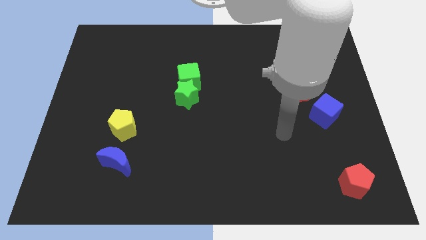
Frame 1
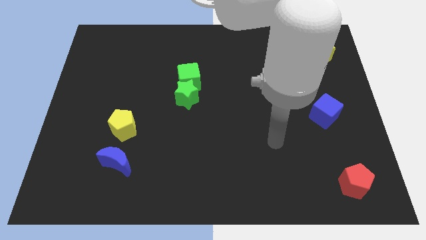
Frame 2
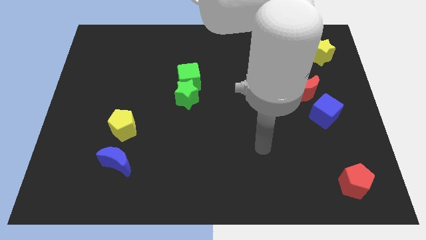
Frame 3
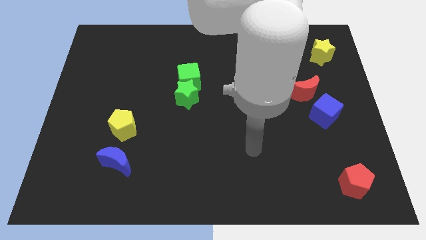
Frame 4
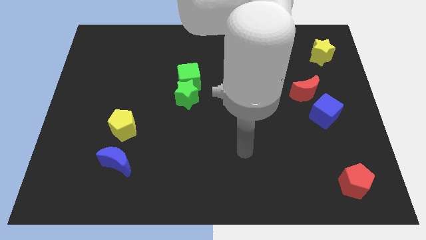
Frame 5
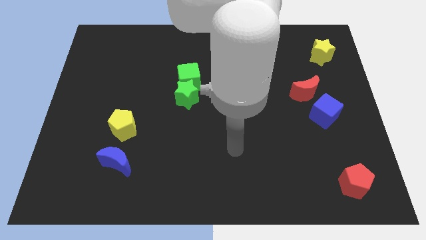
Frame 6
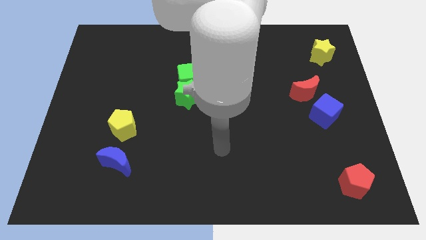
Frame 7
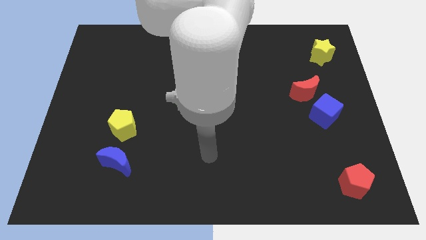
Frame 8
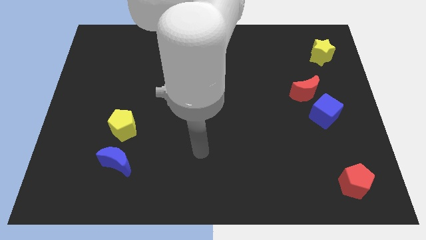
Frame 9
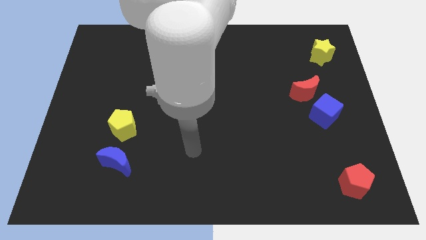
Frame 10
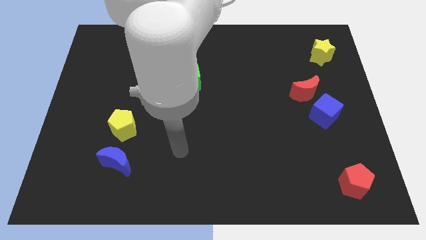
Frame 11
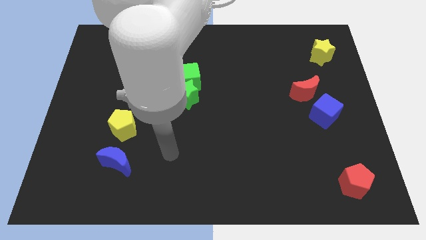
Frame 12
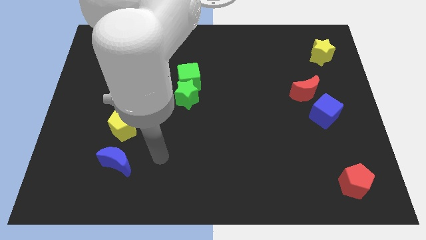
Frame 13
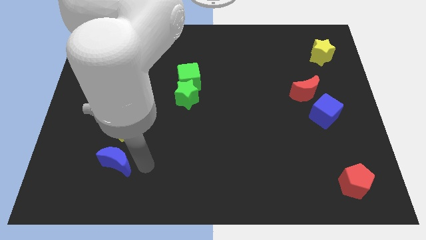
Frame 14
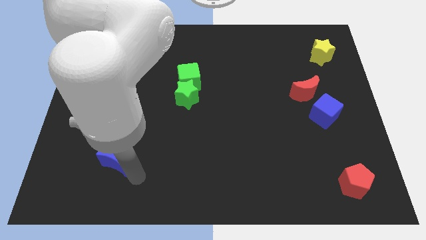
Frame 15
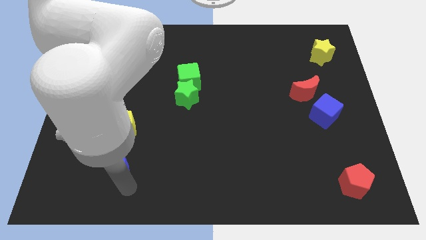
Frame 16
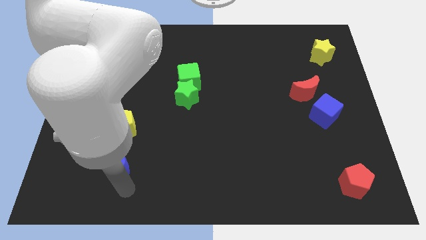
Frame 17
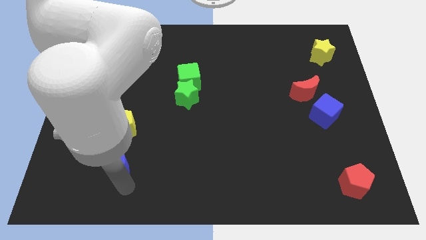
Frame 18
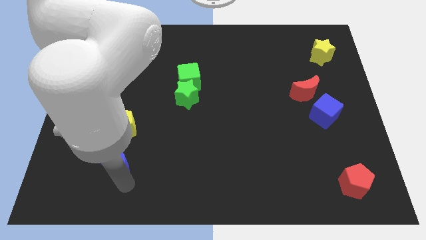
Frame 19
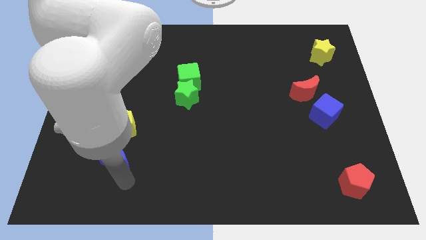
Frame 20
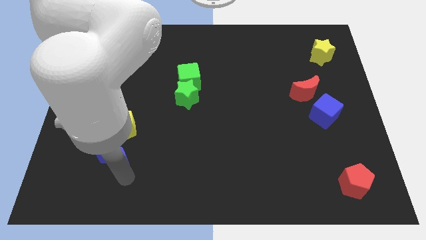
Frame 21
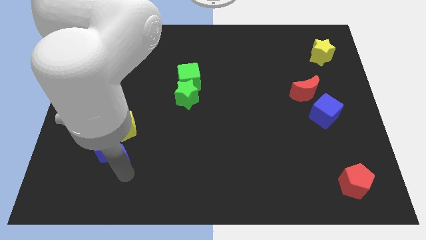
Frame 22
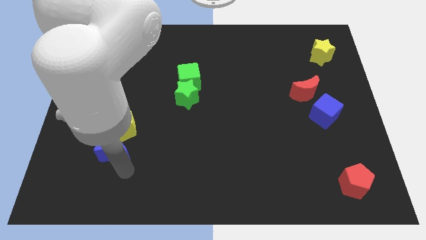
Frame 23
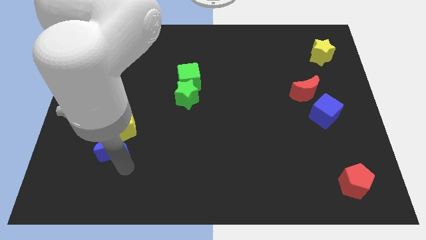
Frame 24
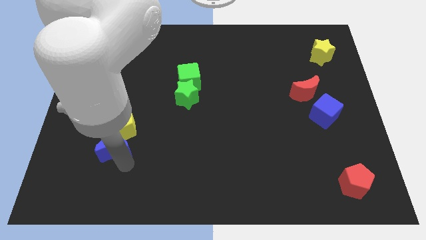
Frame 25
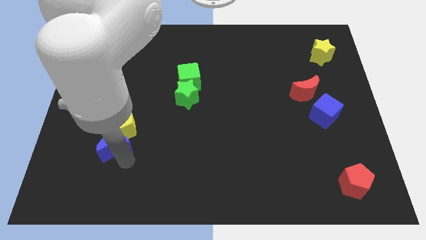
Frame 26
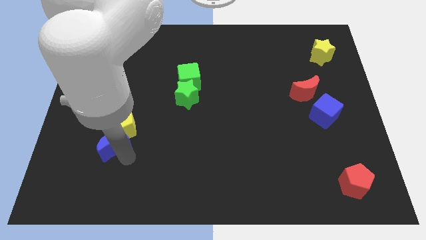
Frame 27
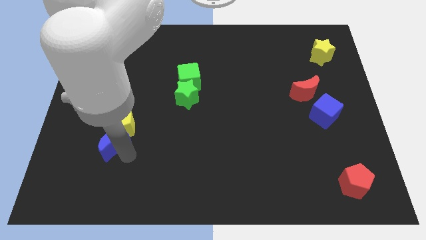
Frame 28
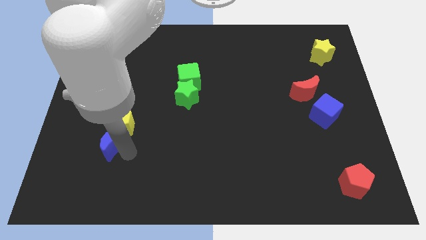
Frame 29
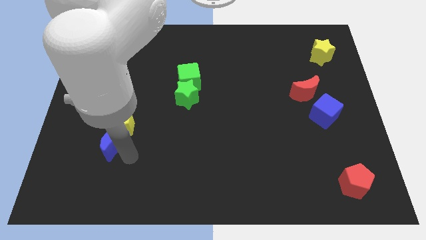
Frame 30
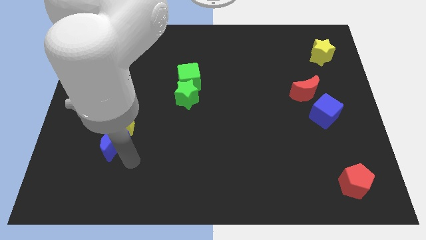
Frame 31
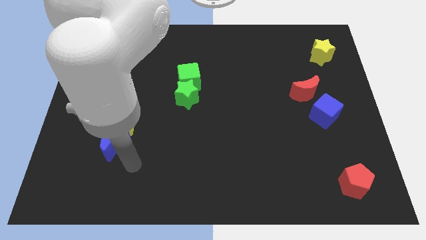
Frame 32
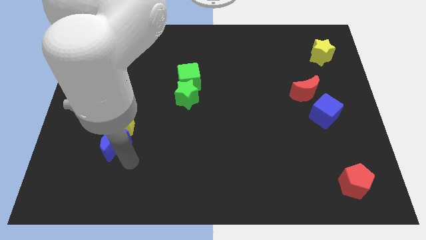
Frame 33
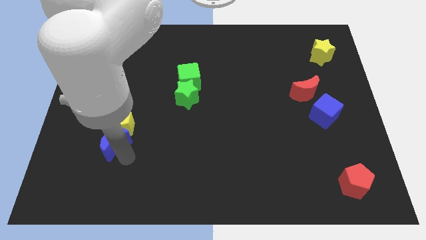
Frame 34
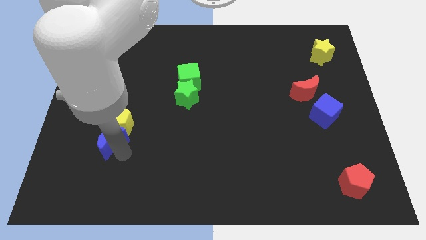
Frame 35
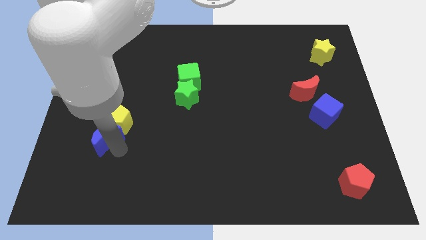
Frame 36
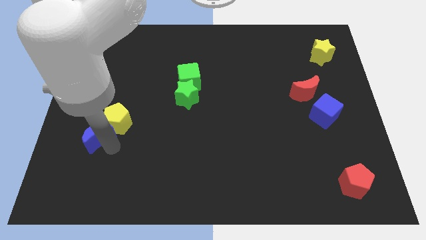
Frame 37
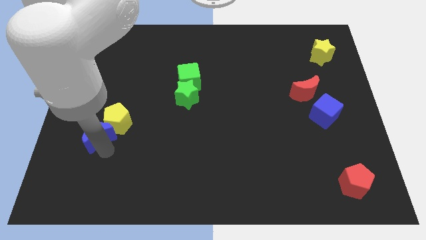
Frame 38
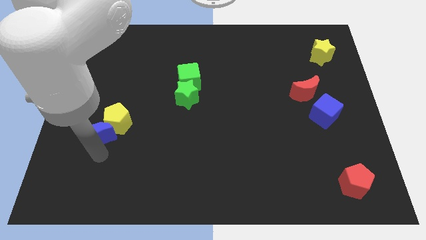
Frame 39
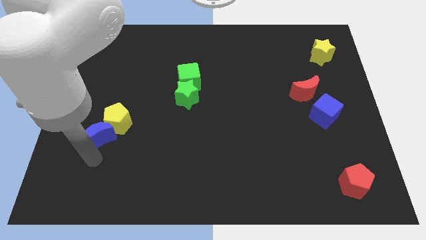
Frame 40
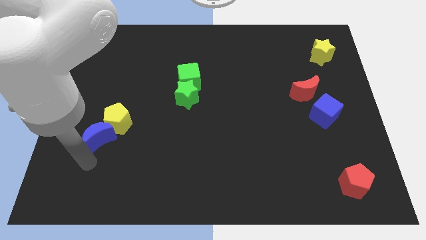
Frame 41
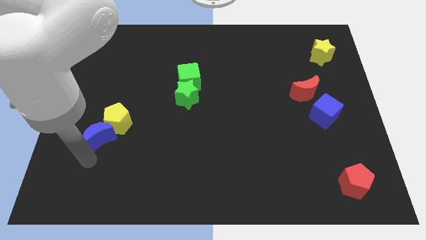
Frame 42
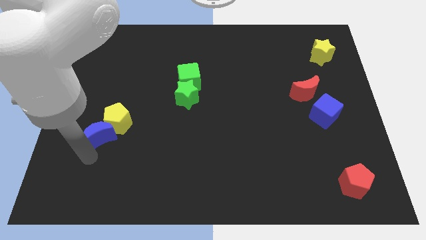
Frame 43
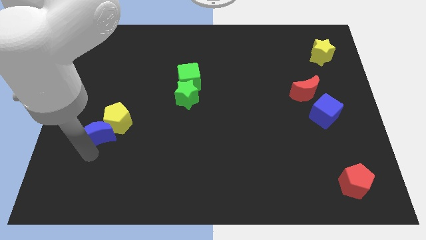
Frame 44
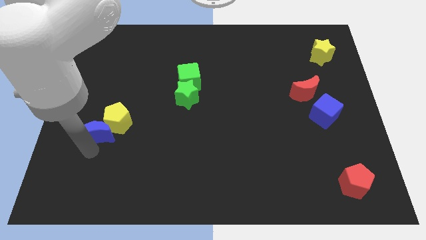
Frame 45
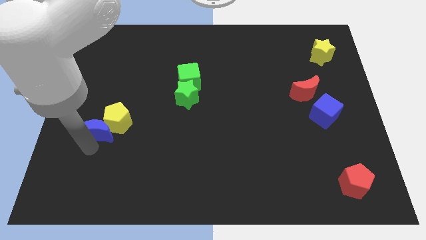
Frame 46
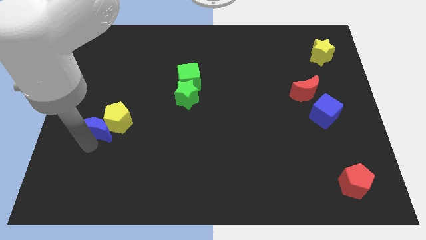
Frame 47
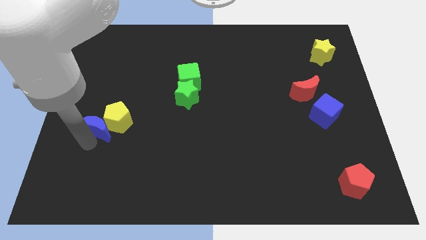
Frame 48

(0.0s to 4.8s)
slightly push the blue moon up

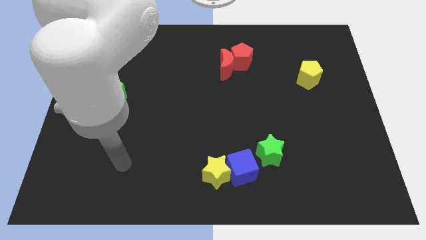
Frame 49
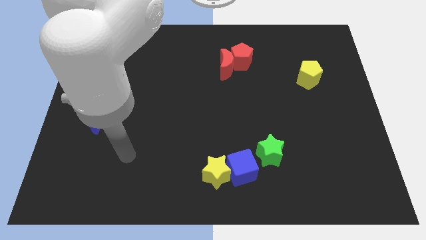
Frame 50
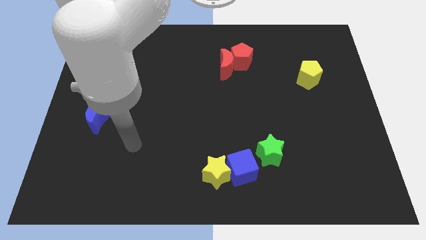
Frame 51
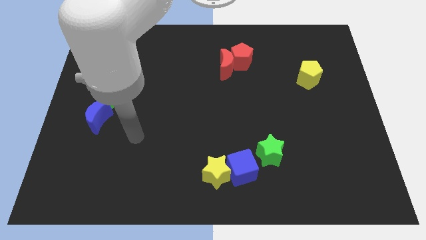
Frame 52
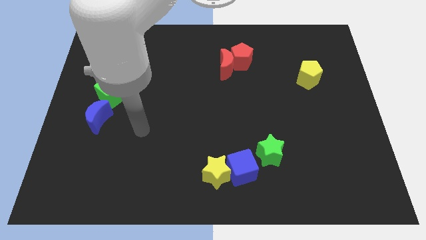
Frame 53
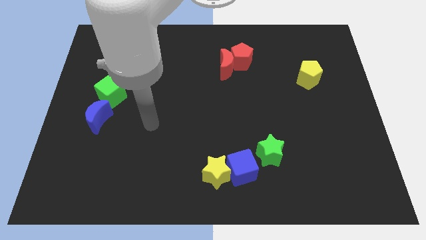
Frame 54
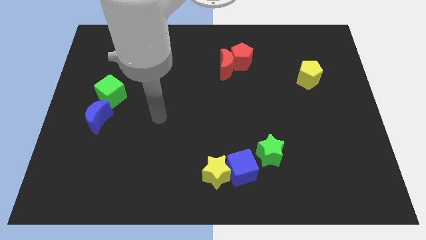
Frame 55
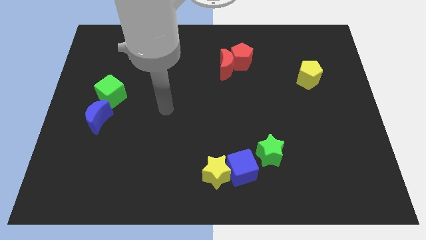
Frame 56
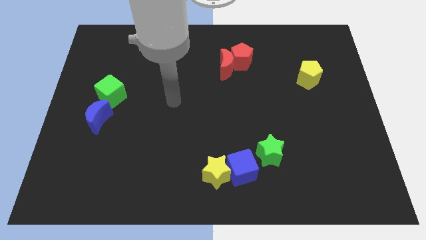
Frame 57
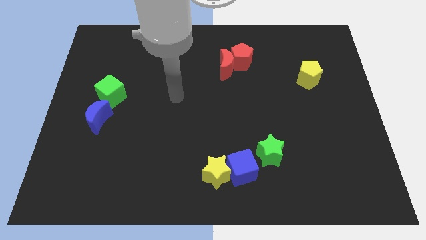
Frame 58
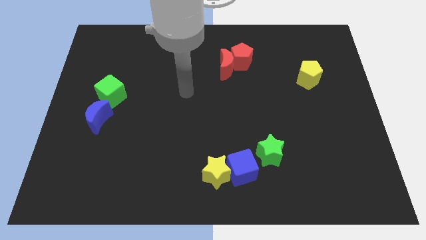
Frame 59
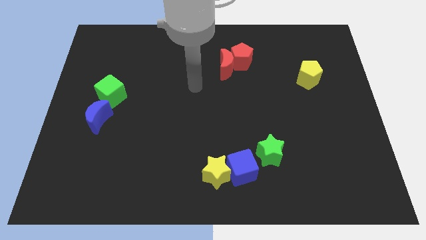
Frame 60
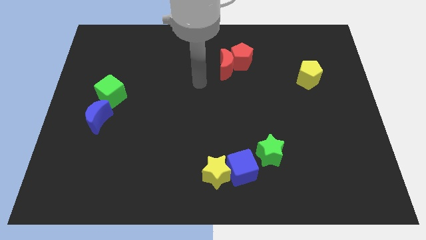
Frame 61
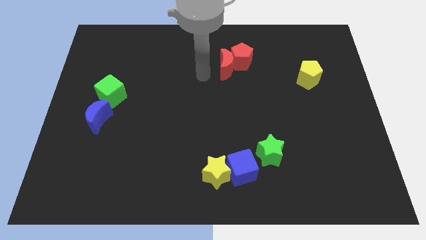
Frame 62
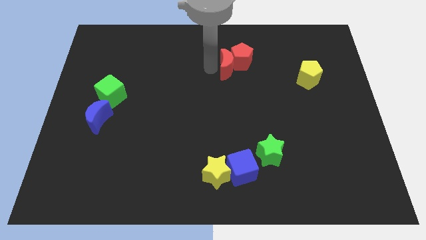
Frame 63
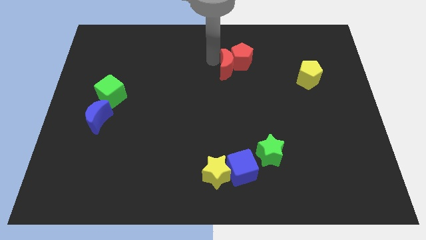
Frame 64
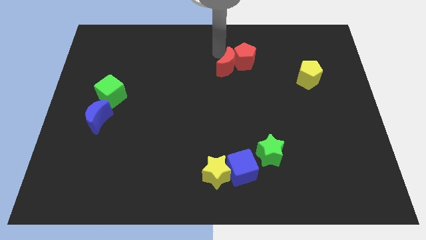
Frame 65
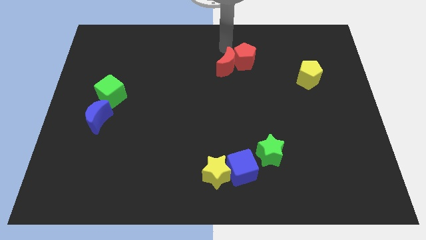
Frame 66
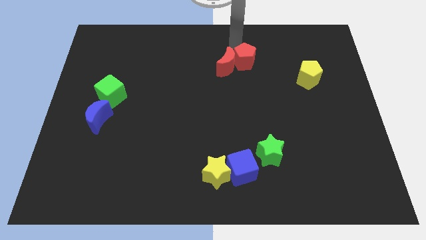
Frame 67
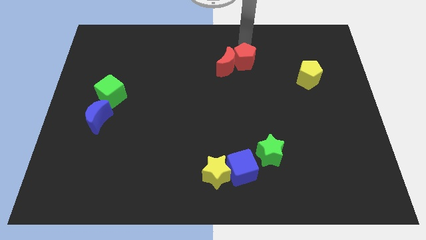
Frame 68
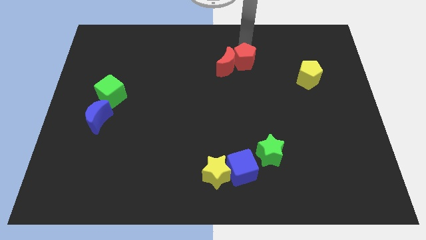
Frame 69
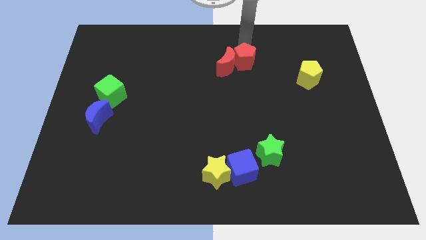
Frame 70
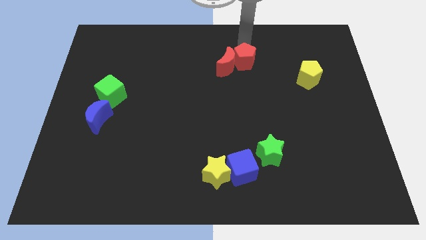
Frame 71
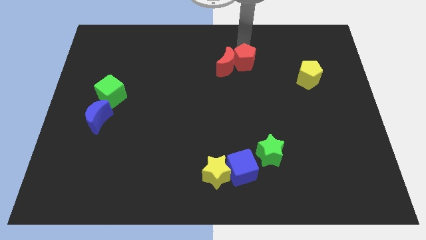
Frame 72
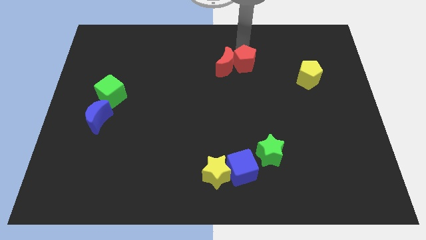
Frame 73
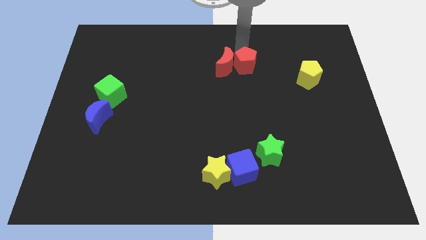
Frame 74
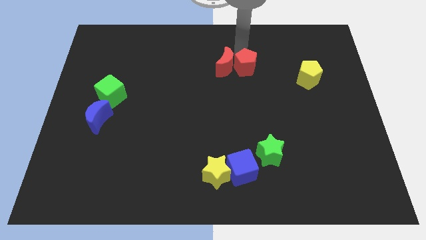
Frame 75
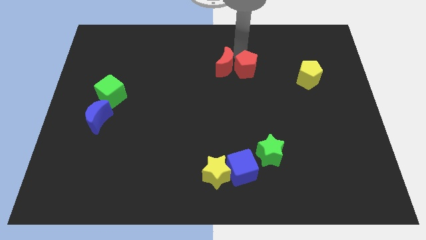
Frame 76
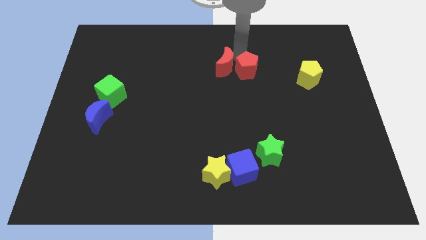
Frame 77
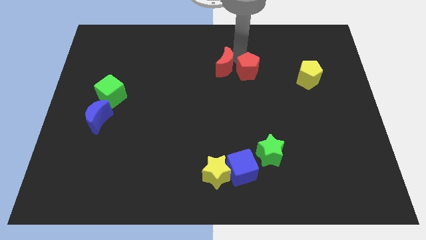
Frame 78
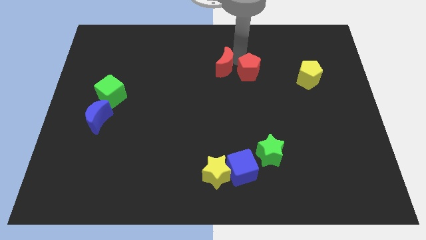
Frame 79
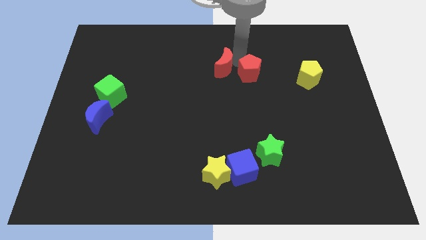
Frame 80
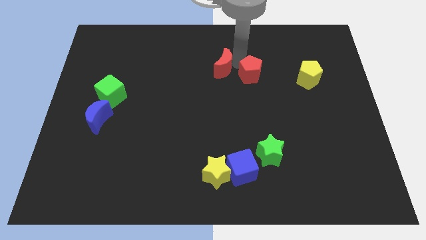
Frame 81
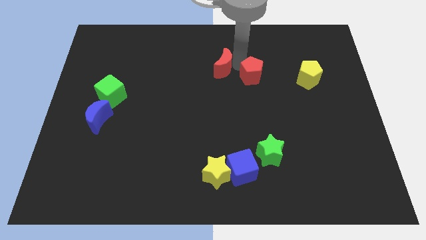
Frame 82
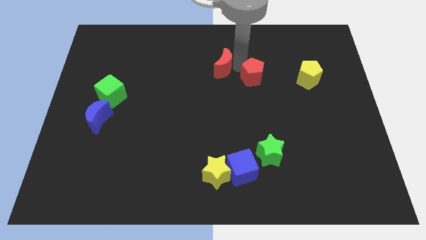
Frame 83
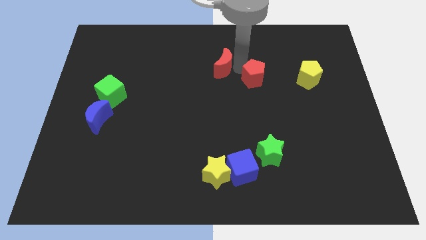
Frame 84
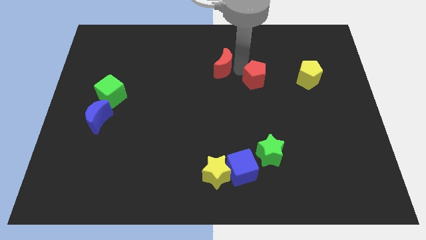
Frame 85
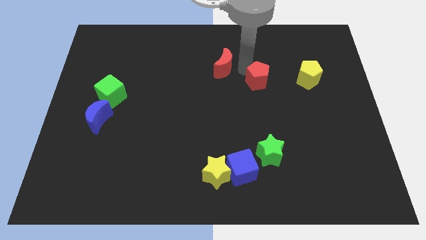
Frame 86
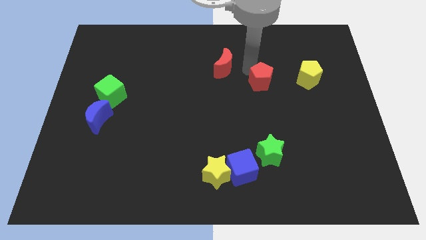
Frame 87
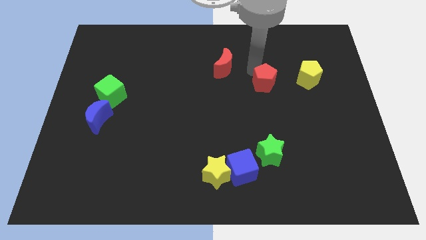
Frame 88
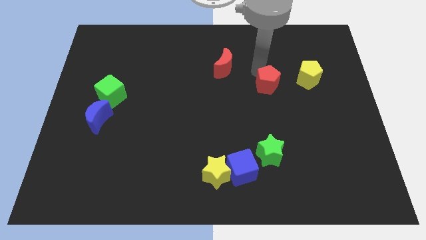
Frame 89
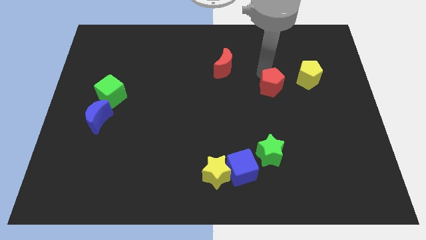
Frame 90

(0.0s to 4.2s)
move the red pentagon down a little
